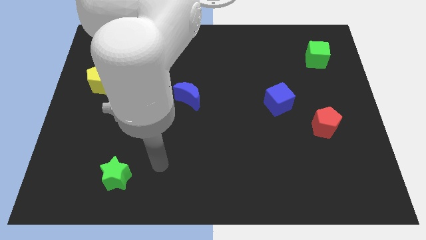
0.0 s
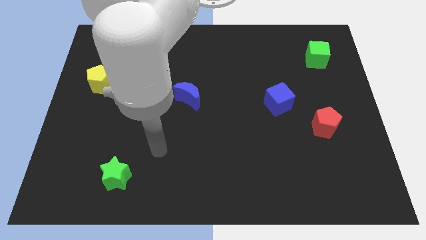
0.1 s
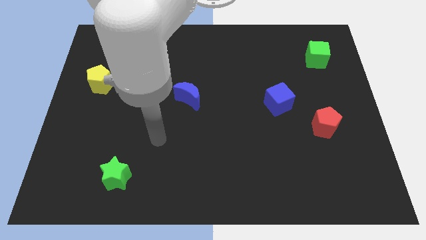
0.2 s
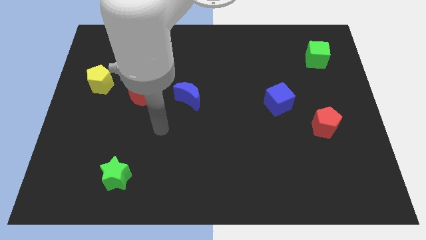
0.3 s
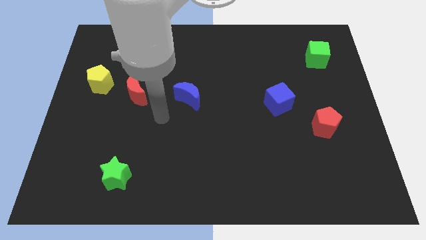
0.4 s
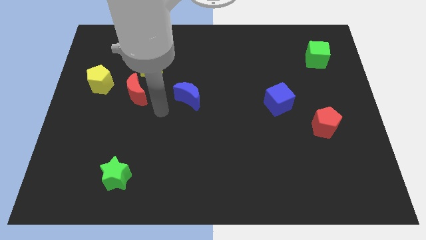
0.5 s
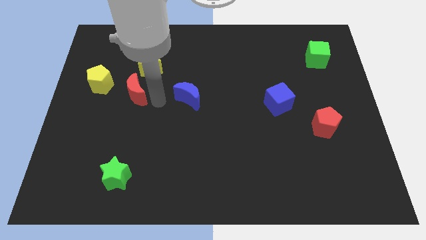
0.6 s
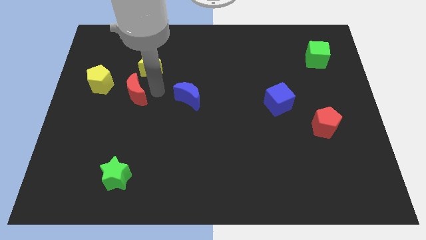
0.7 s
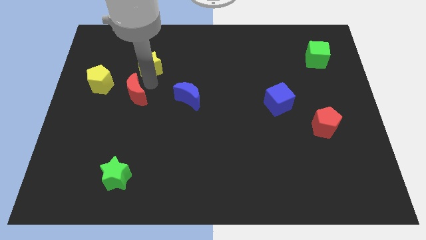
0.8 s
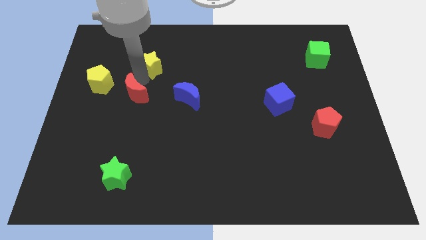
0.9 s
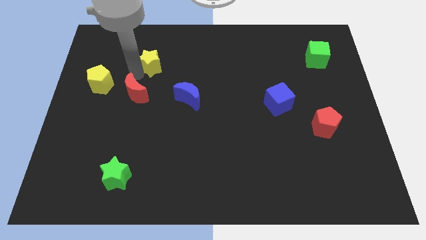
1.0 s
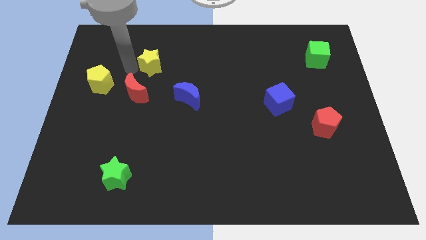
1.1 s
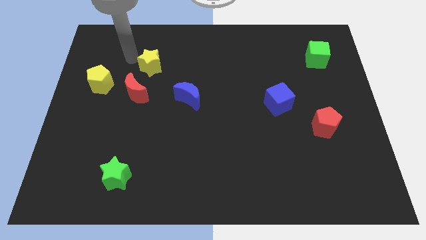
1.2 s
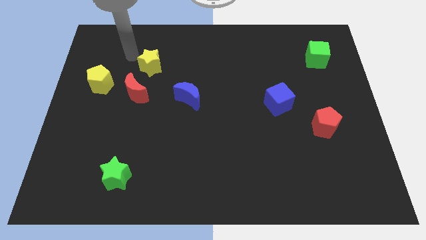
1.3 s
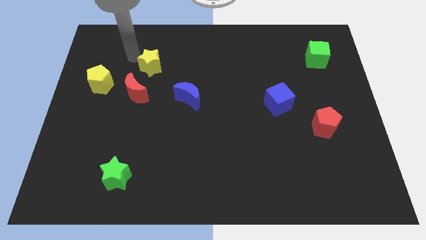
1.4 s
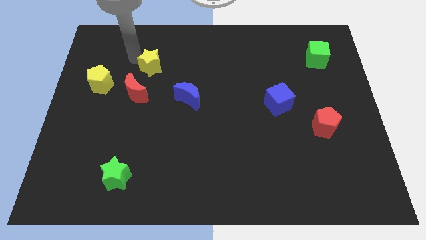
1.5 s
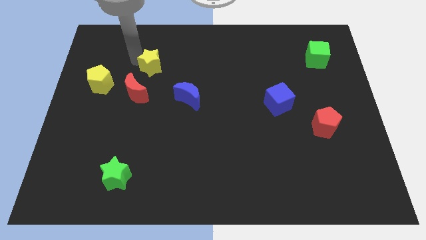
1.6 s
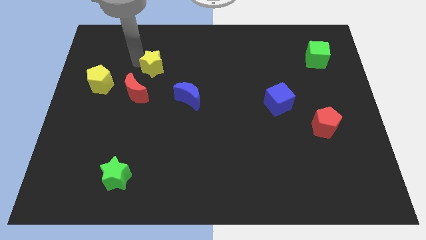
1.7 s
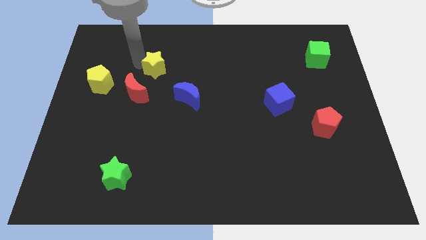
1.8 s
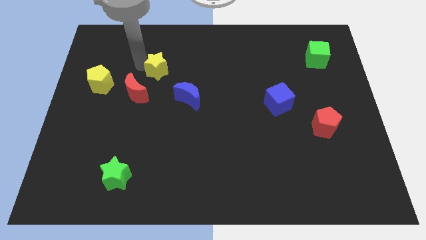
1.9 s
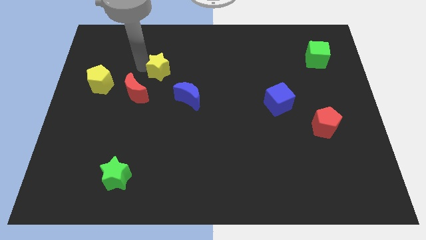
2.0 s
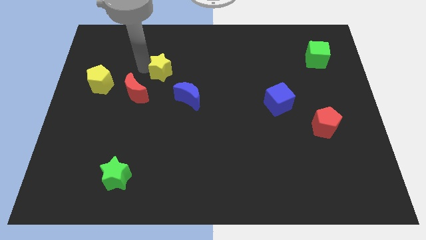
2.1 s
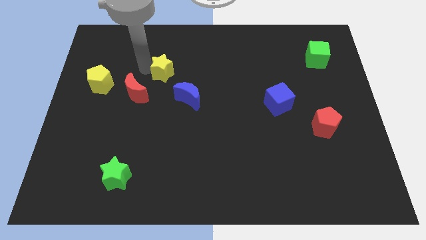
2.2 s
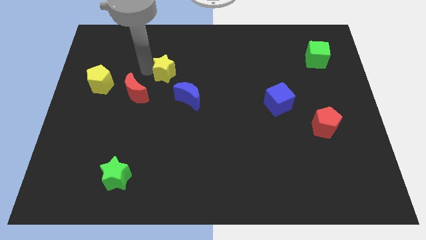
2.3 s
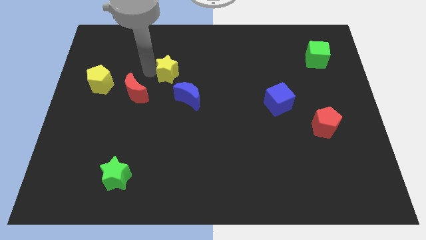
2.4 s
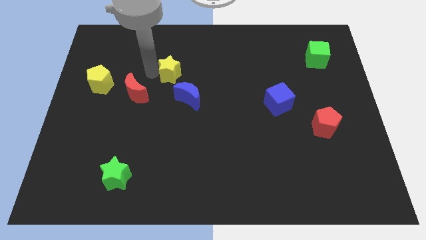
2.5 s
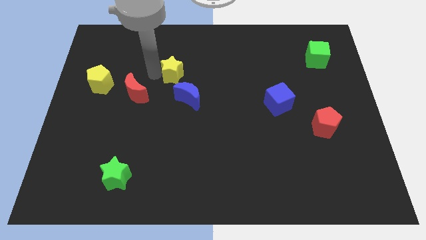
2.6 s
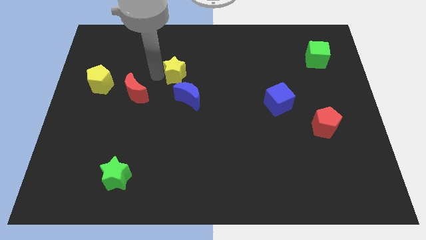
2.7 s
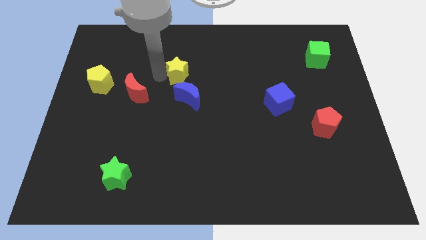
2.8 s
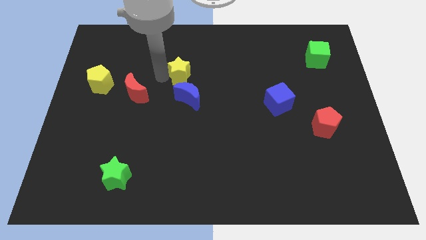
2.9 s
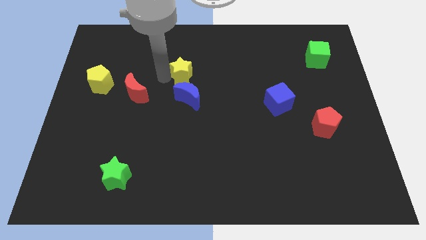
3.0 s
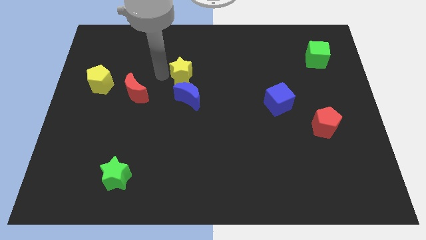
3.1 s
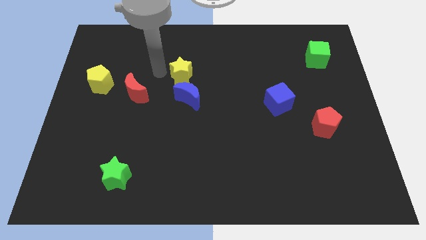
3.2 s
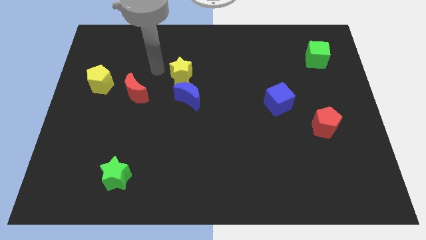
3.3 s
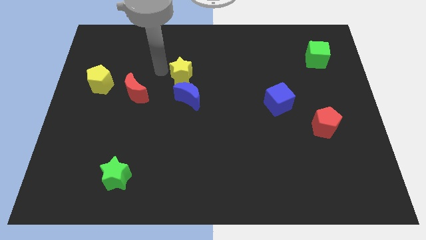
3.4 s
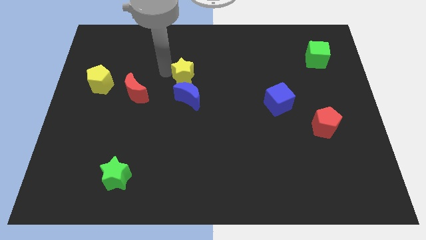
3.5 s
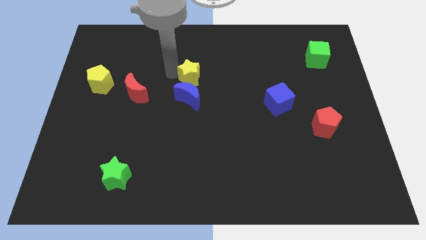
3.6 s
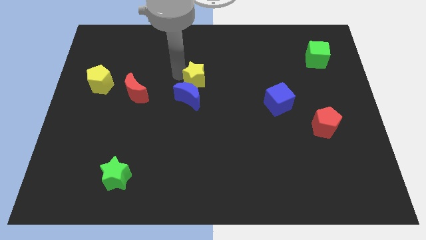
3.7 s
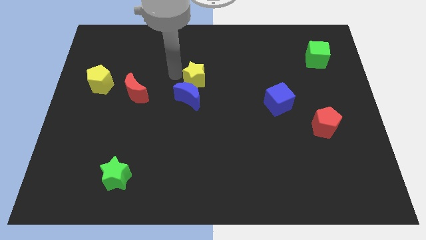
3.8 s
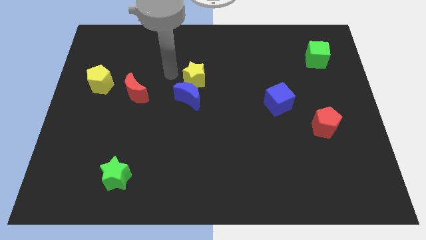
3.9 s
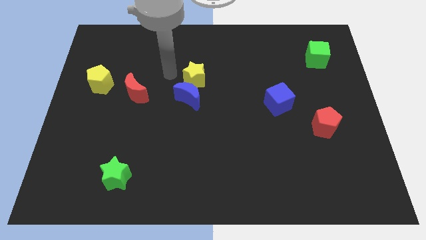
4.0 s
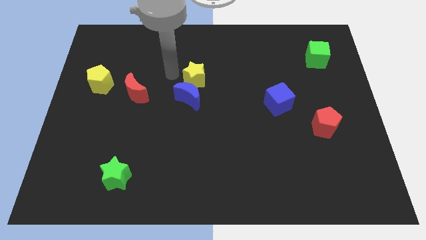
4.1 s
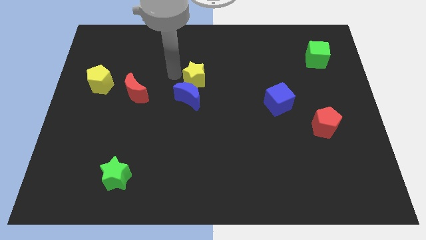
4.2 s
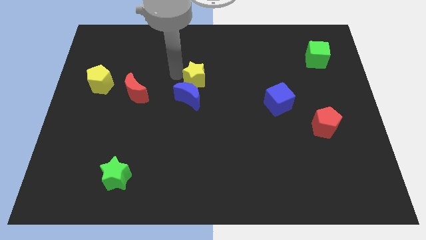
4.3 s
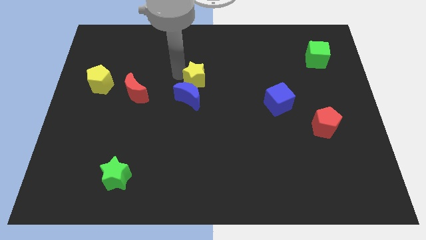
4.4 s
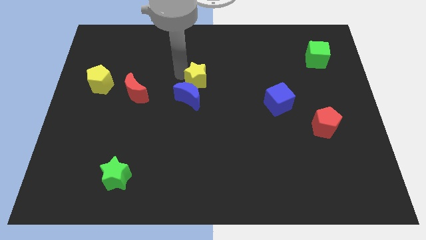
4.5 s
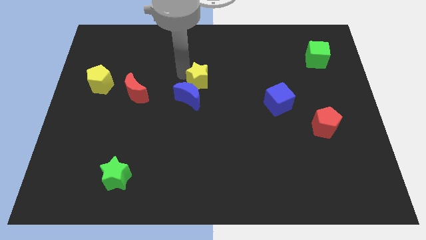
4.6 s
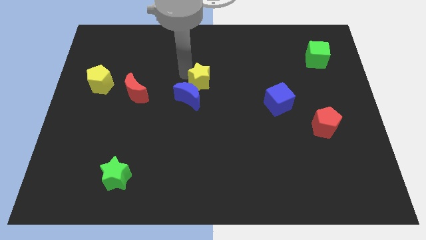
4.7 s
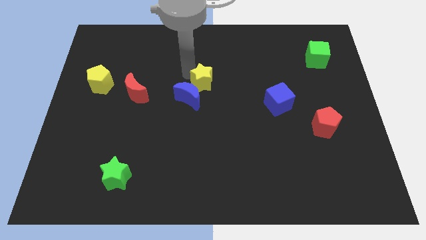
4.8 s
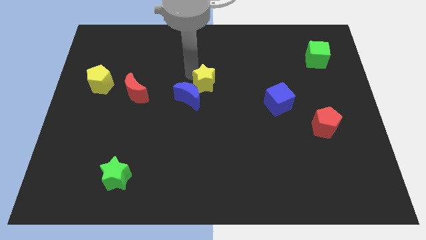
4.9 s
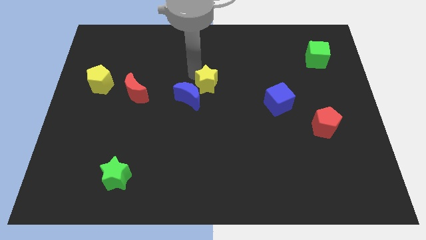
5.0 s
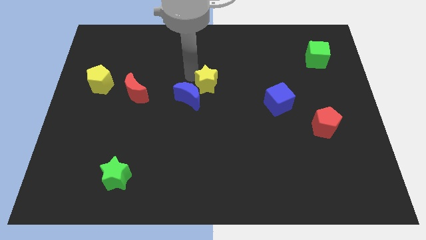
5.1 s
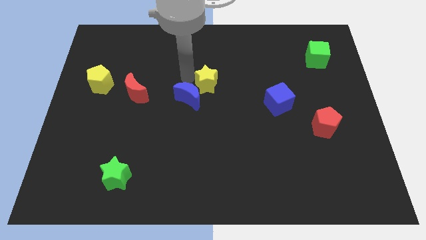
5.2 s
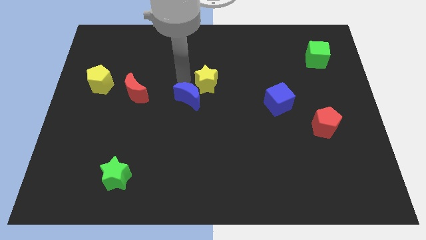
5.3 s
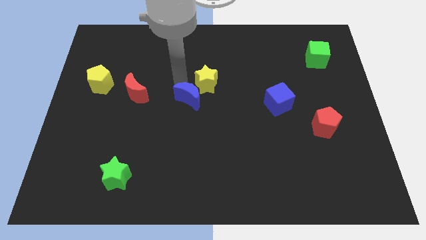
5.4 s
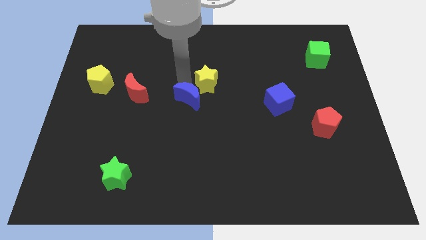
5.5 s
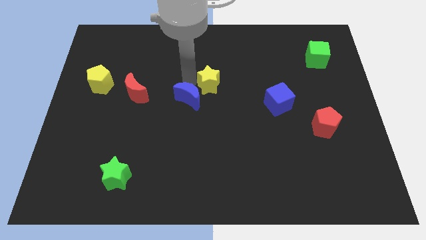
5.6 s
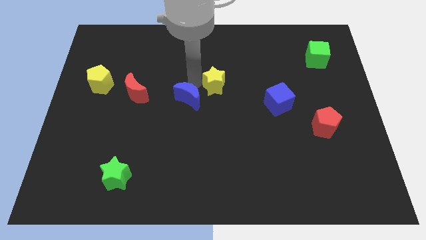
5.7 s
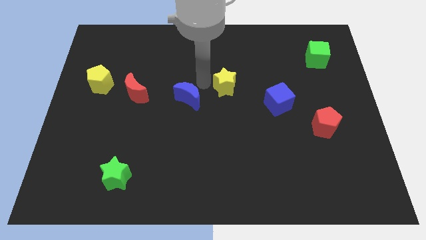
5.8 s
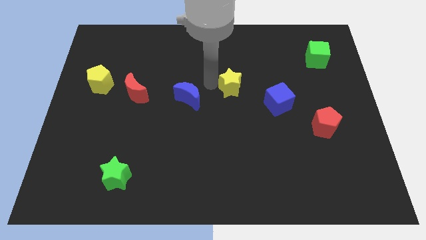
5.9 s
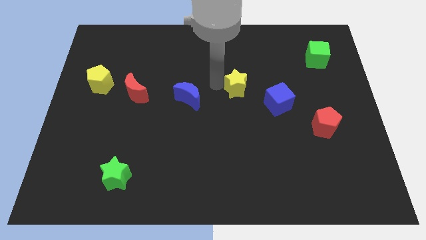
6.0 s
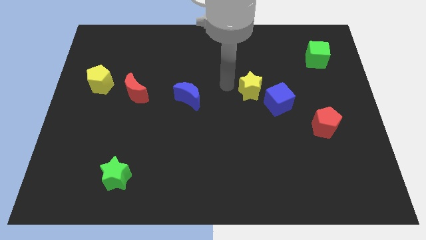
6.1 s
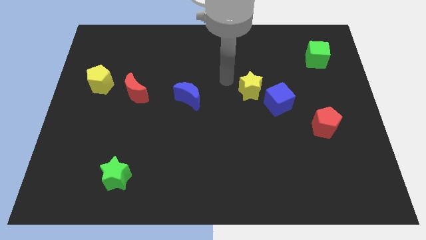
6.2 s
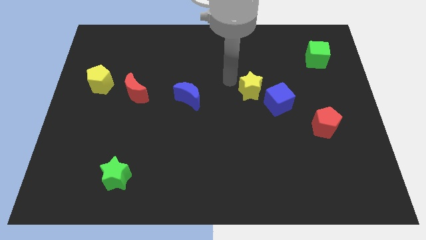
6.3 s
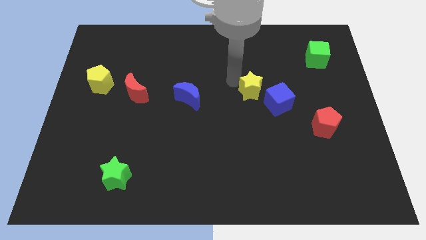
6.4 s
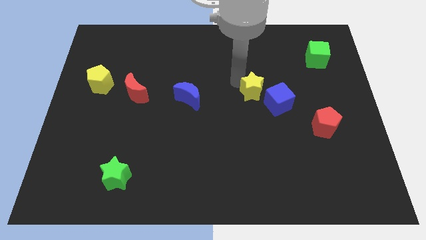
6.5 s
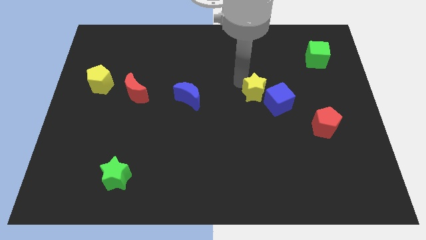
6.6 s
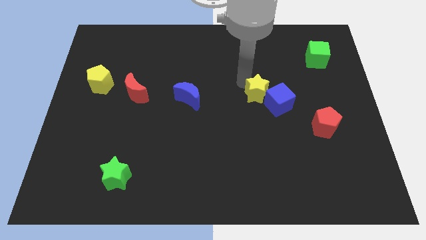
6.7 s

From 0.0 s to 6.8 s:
put the yellow star next to the blue cube

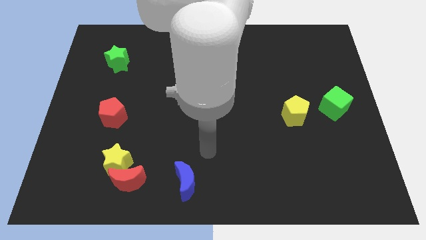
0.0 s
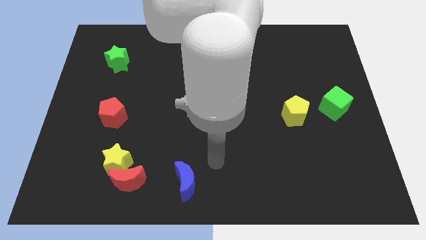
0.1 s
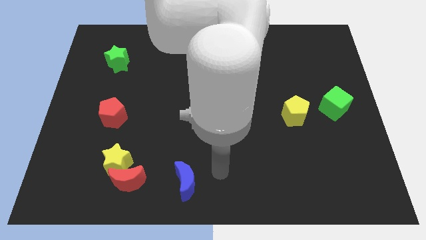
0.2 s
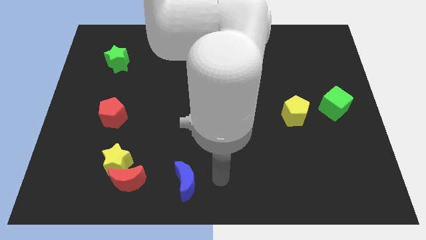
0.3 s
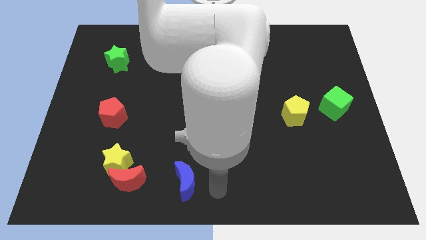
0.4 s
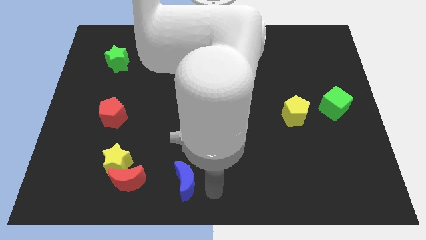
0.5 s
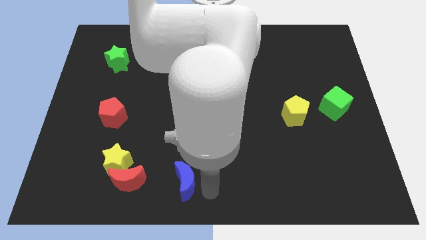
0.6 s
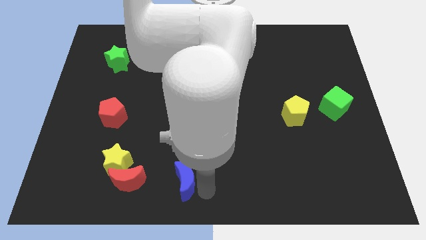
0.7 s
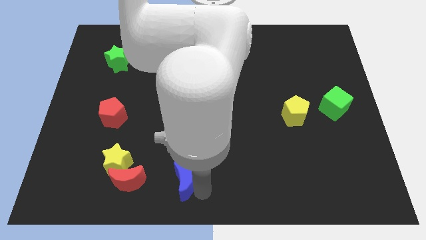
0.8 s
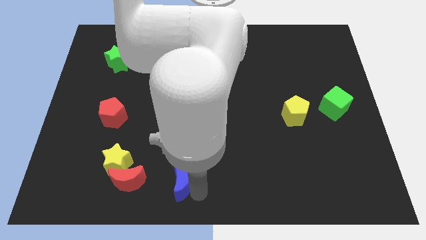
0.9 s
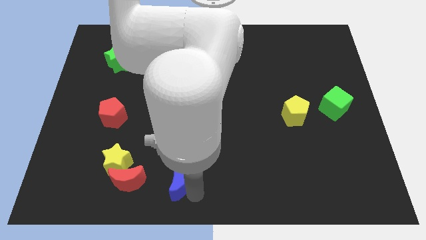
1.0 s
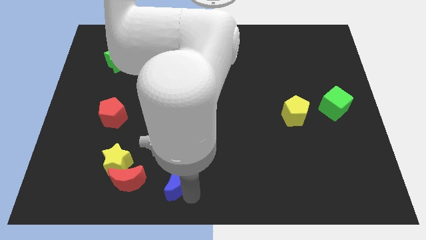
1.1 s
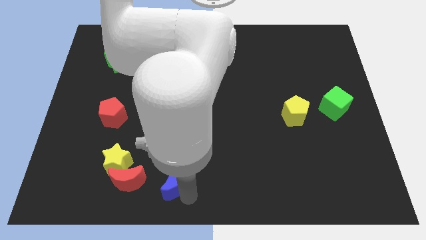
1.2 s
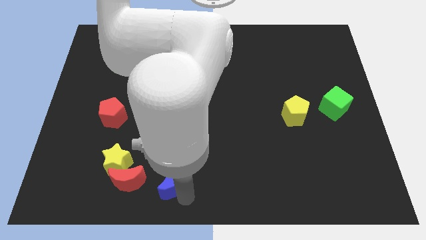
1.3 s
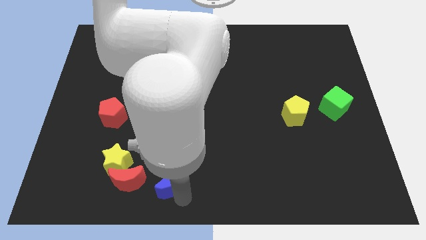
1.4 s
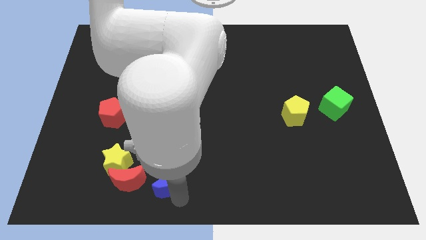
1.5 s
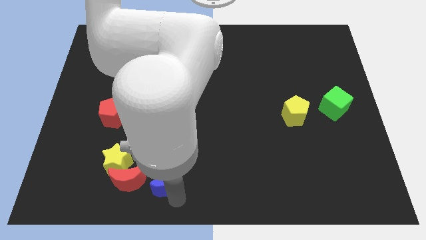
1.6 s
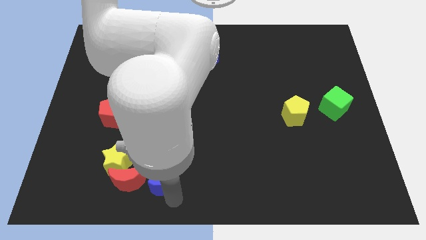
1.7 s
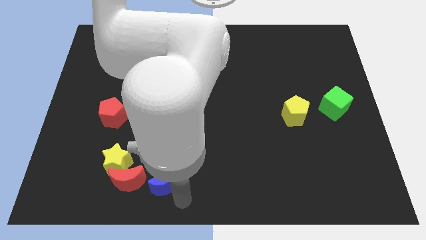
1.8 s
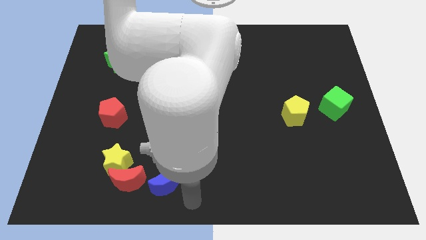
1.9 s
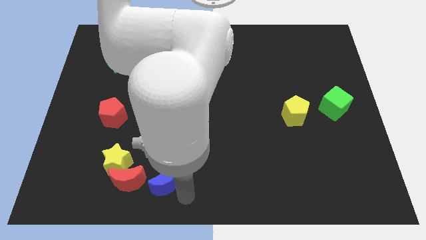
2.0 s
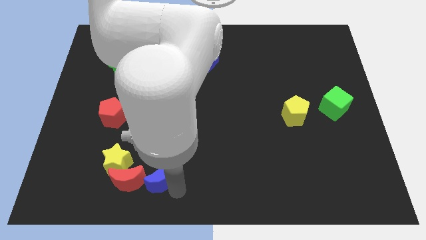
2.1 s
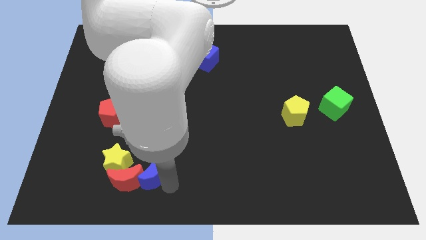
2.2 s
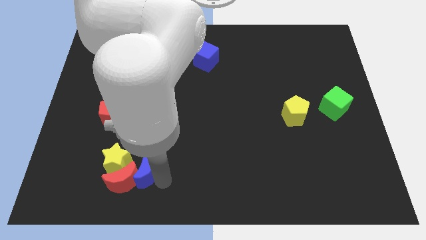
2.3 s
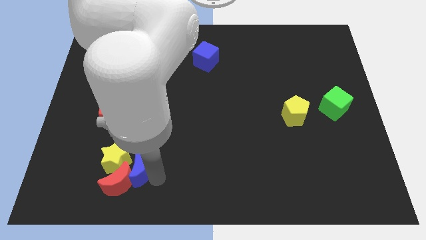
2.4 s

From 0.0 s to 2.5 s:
put the blue moon to the yellow star
